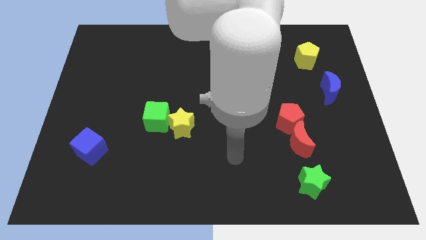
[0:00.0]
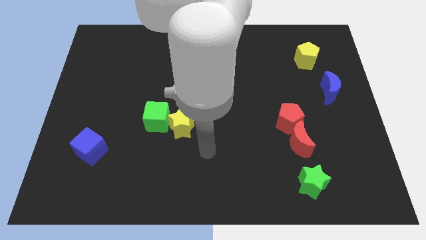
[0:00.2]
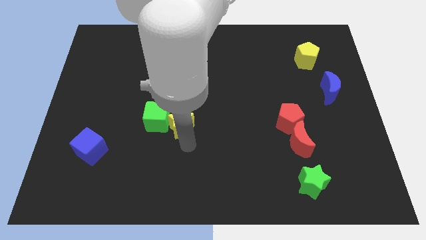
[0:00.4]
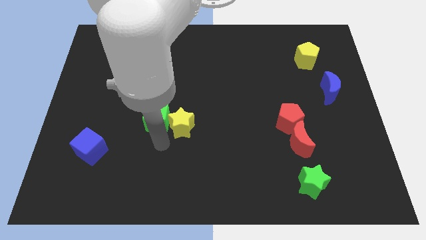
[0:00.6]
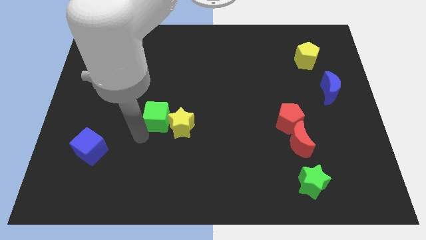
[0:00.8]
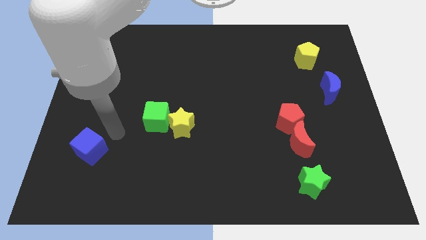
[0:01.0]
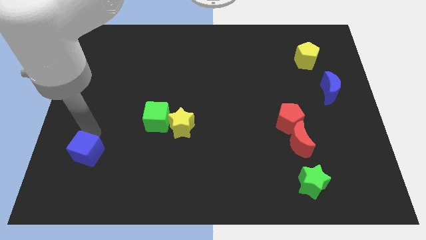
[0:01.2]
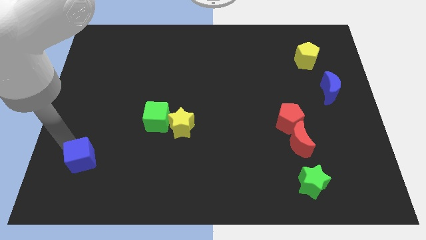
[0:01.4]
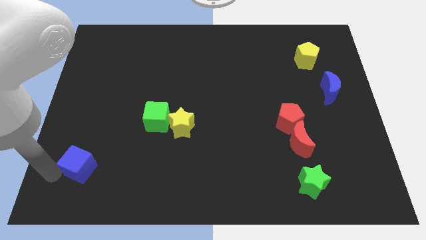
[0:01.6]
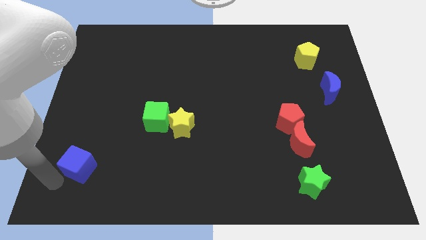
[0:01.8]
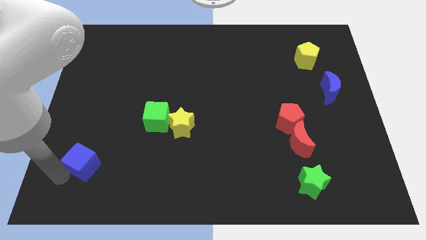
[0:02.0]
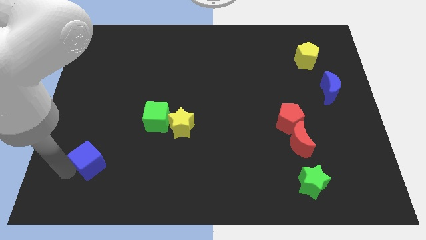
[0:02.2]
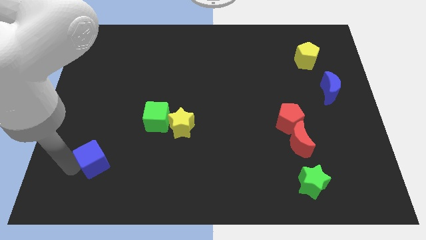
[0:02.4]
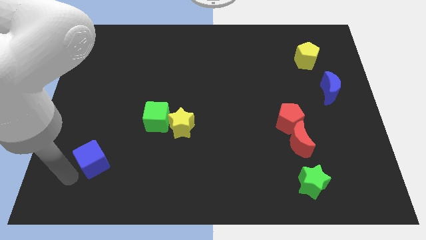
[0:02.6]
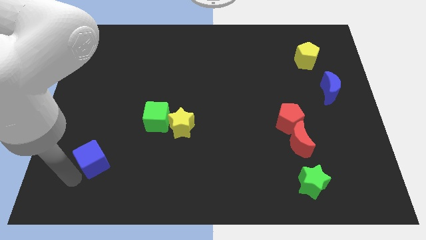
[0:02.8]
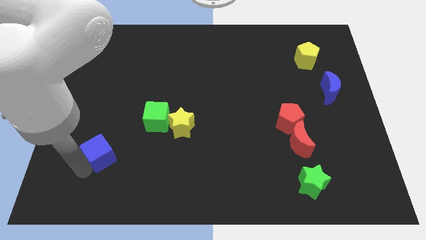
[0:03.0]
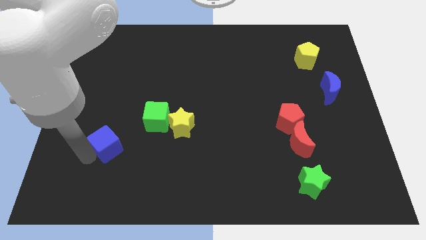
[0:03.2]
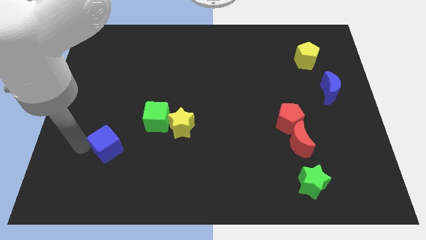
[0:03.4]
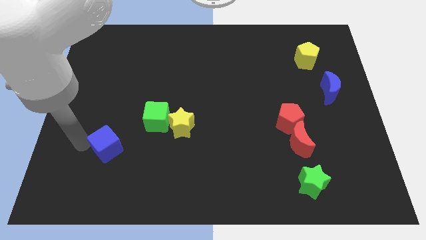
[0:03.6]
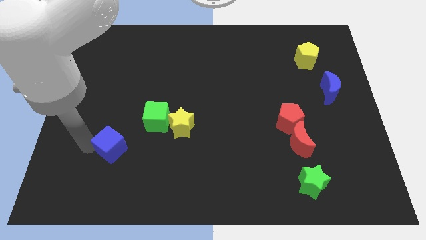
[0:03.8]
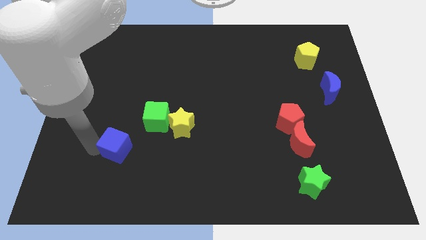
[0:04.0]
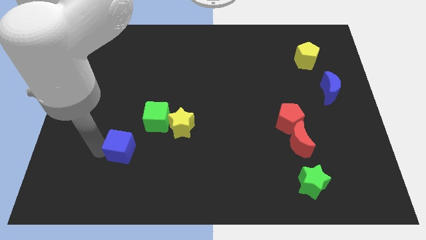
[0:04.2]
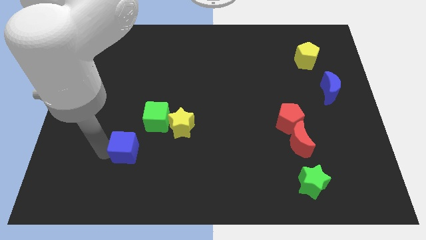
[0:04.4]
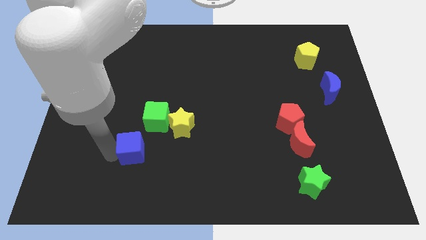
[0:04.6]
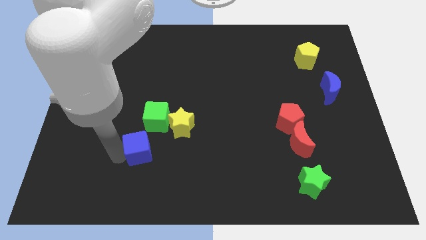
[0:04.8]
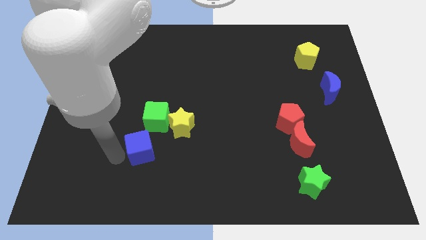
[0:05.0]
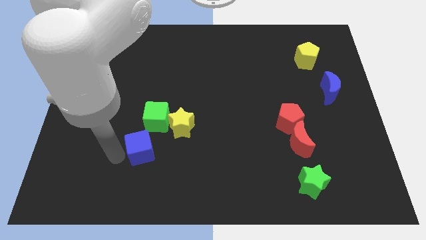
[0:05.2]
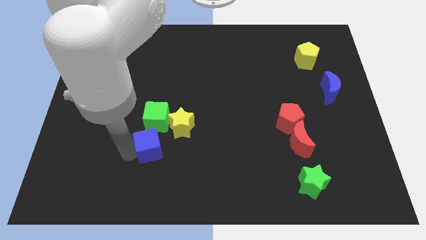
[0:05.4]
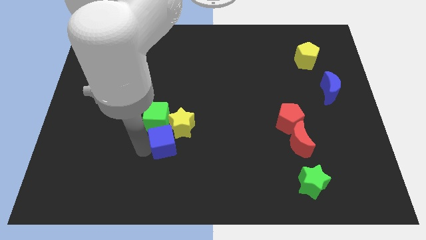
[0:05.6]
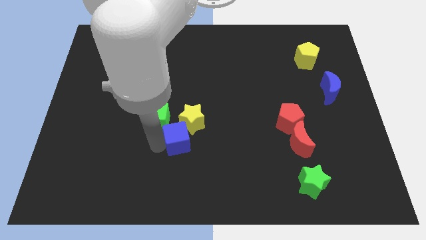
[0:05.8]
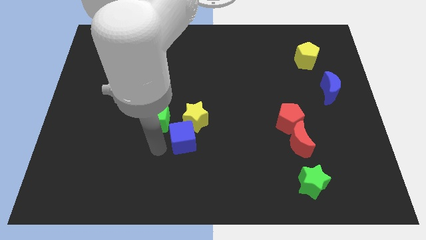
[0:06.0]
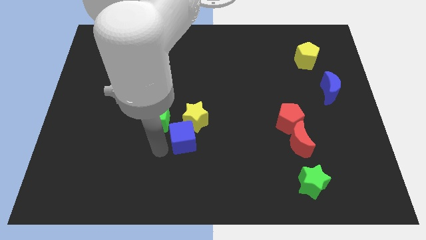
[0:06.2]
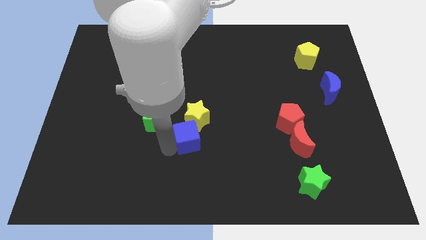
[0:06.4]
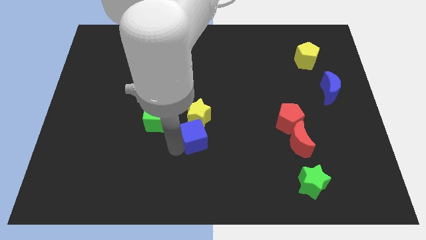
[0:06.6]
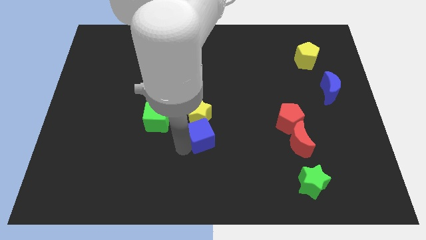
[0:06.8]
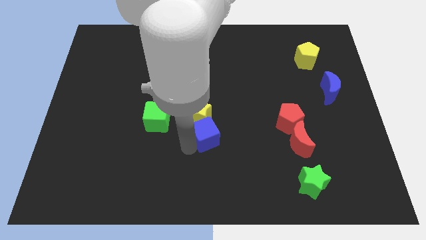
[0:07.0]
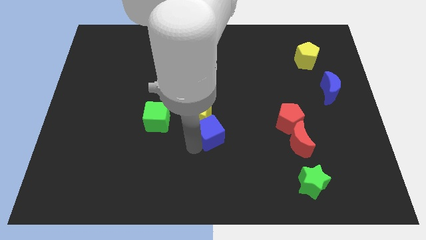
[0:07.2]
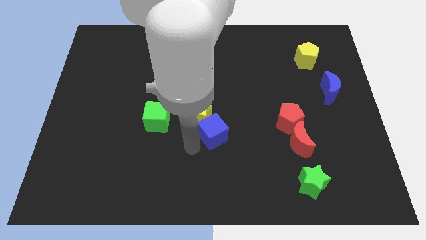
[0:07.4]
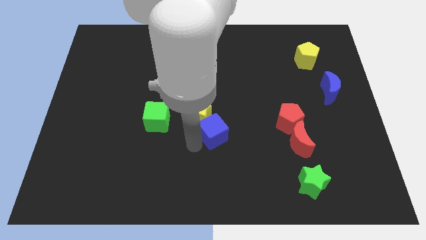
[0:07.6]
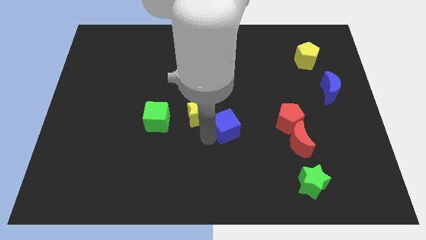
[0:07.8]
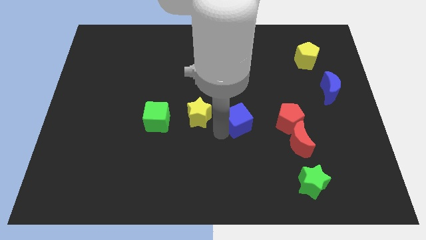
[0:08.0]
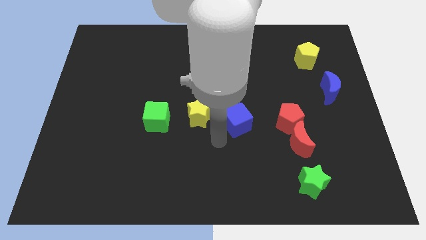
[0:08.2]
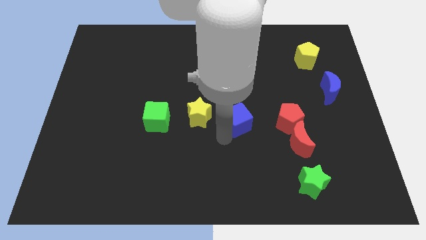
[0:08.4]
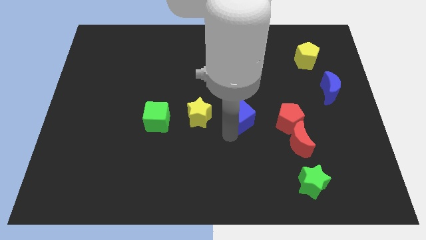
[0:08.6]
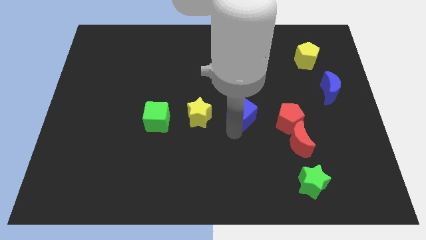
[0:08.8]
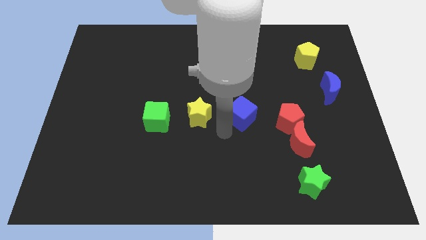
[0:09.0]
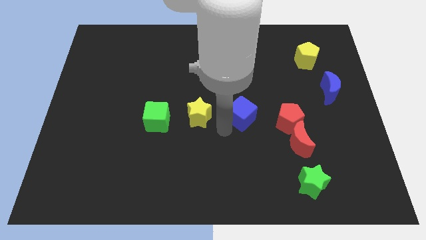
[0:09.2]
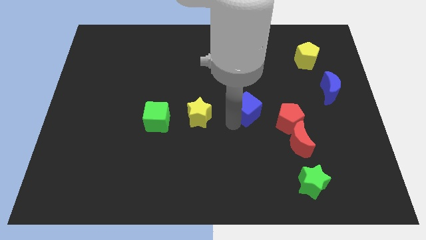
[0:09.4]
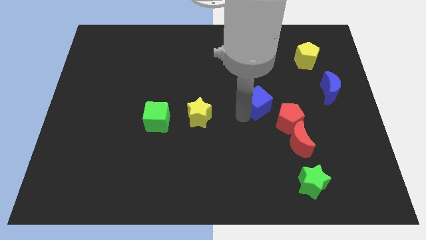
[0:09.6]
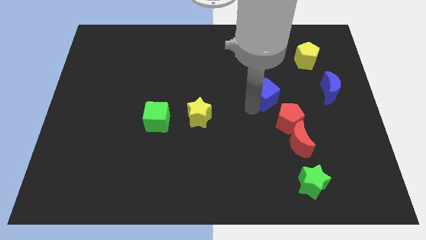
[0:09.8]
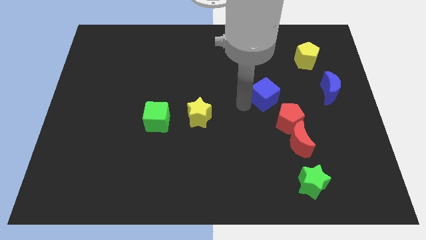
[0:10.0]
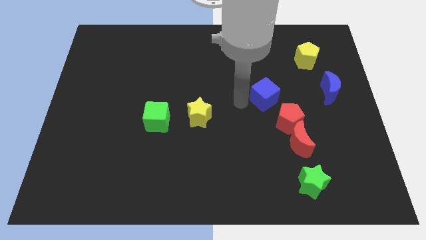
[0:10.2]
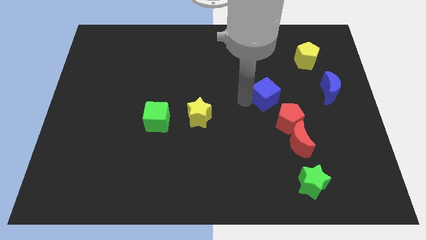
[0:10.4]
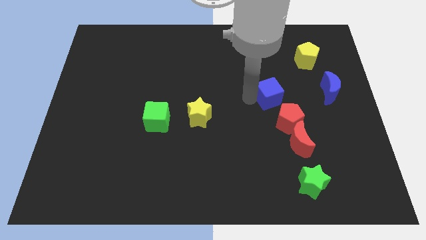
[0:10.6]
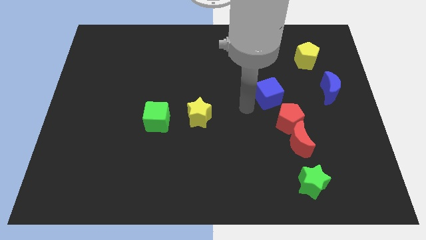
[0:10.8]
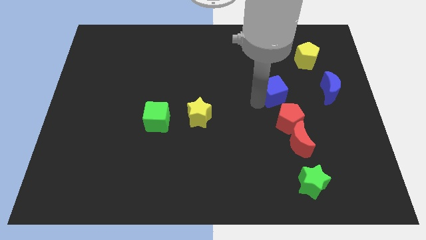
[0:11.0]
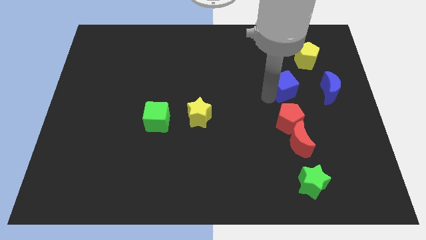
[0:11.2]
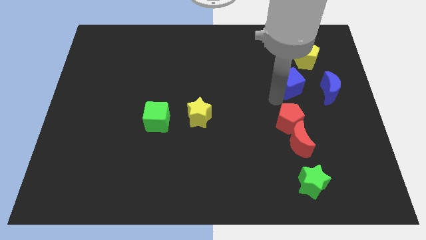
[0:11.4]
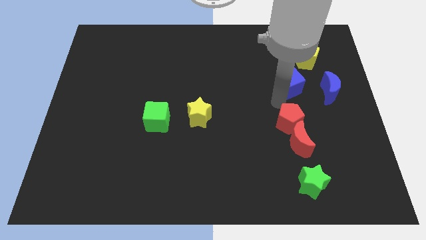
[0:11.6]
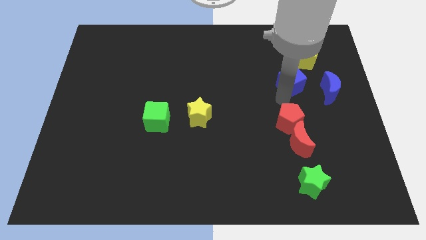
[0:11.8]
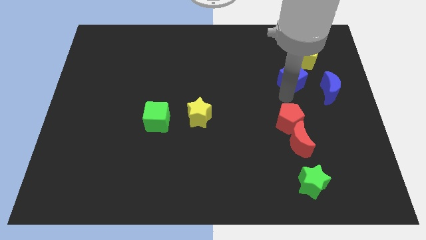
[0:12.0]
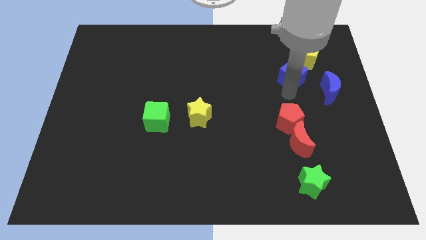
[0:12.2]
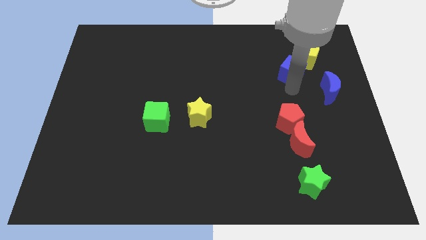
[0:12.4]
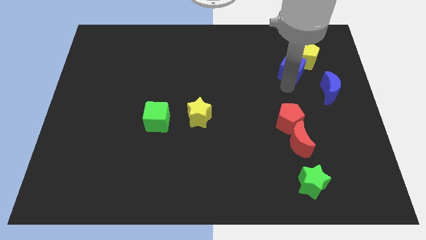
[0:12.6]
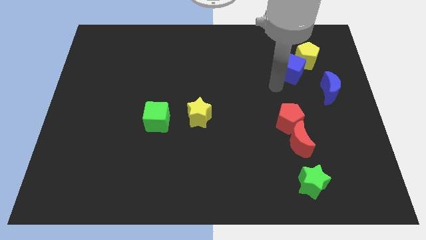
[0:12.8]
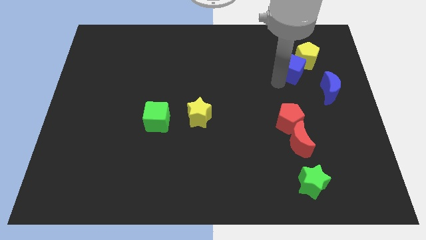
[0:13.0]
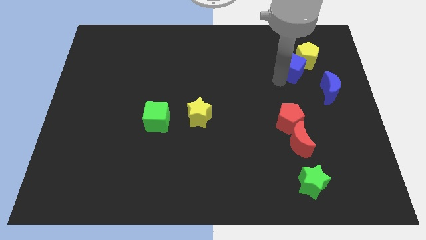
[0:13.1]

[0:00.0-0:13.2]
slide the blue cube to the yellow pentagon

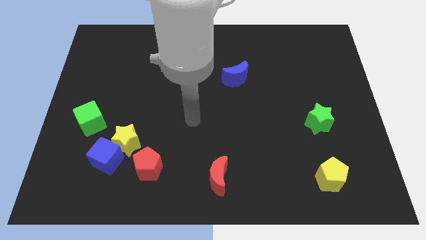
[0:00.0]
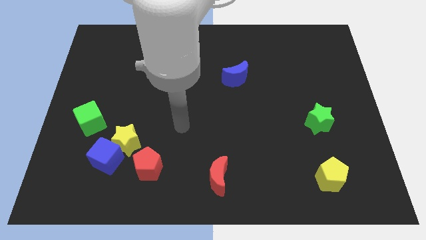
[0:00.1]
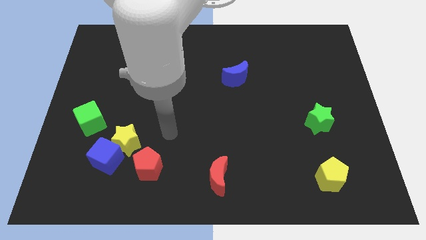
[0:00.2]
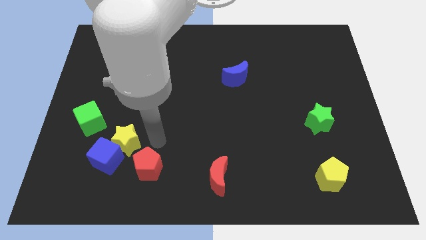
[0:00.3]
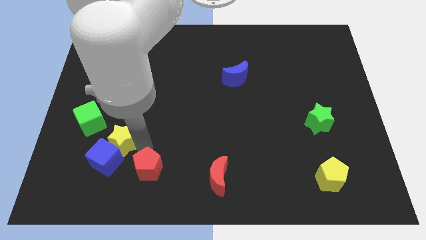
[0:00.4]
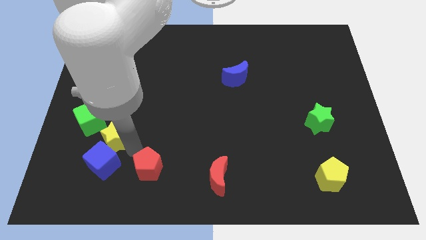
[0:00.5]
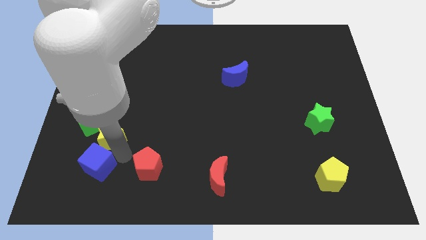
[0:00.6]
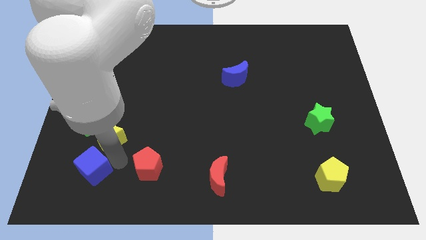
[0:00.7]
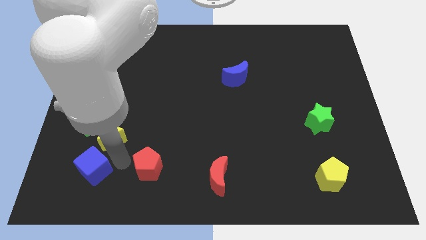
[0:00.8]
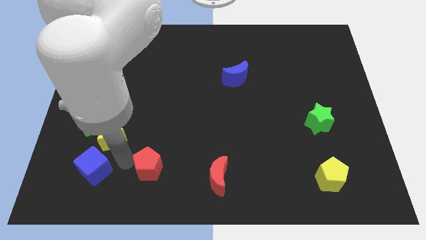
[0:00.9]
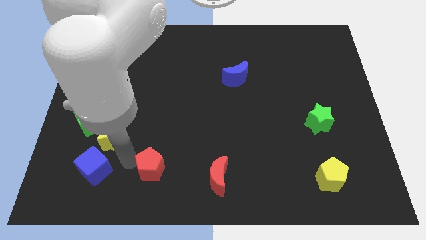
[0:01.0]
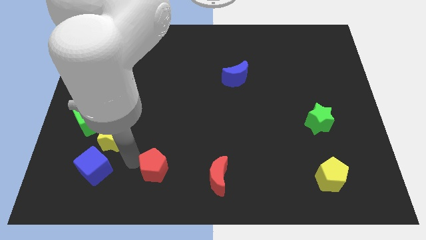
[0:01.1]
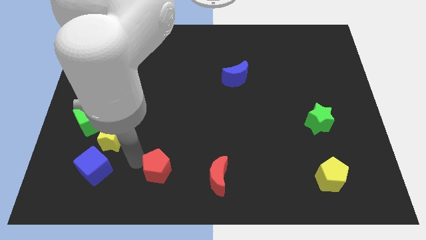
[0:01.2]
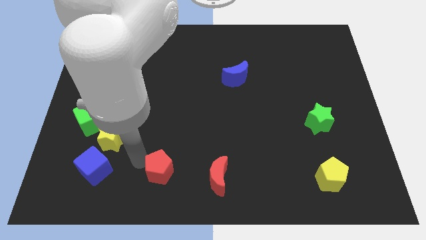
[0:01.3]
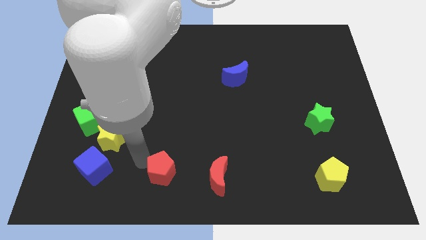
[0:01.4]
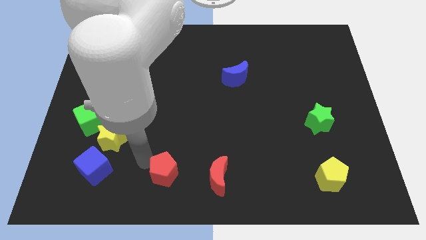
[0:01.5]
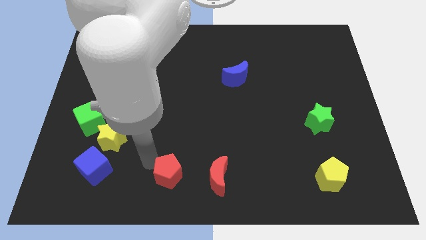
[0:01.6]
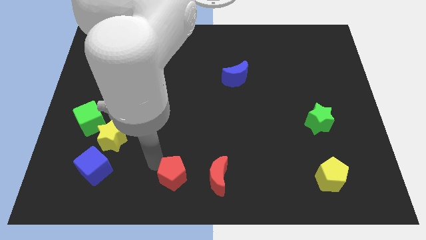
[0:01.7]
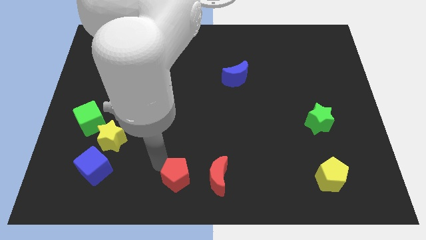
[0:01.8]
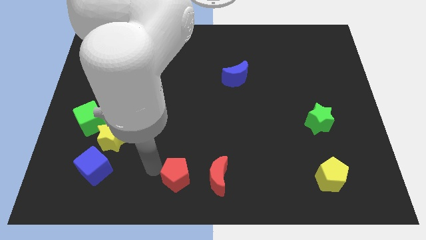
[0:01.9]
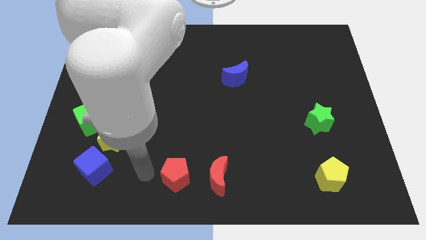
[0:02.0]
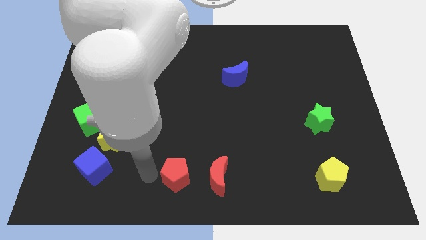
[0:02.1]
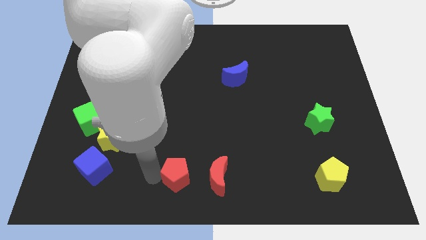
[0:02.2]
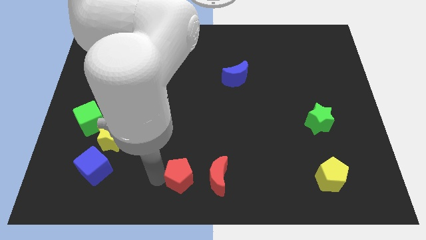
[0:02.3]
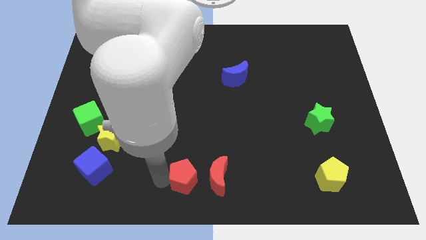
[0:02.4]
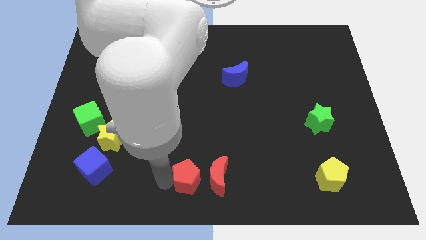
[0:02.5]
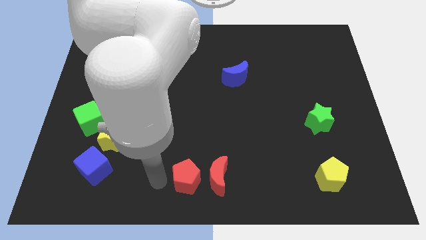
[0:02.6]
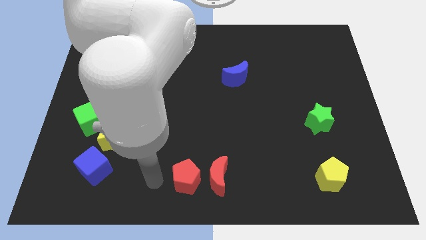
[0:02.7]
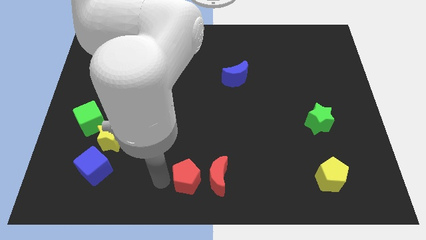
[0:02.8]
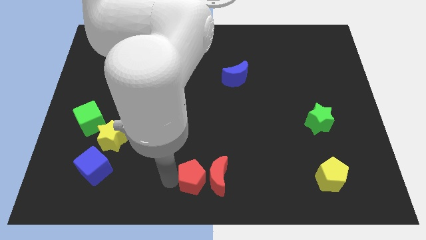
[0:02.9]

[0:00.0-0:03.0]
slide the red pentagon close to the red moon
